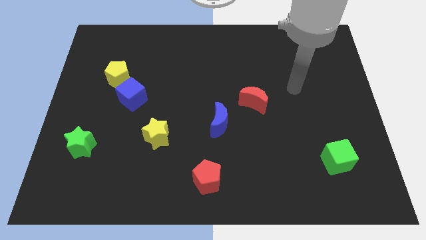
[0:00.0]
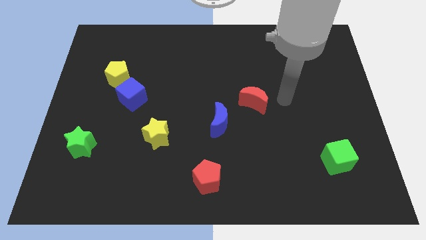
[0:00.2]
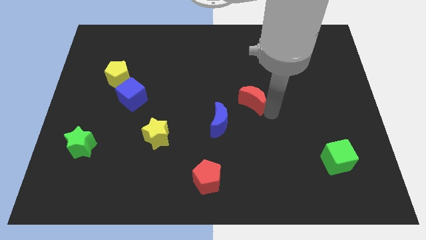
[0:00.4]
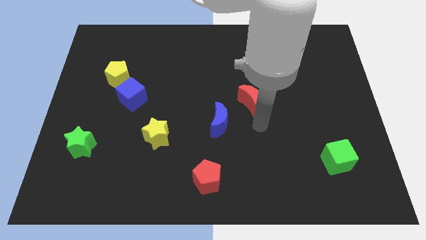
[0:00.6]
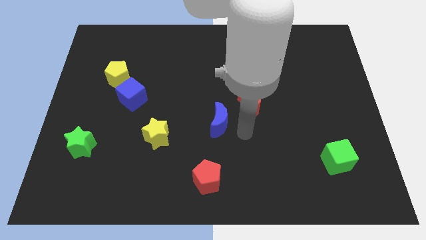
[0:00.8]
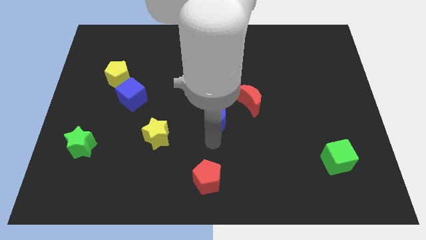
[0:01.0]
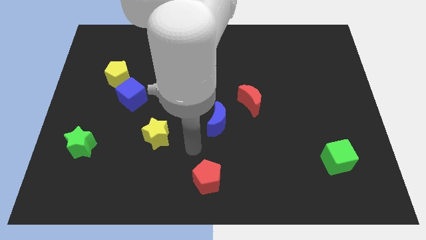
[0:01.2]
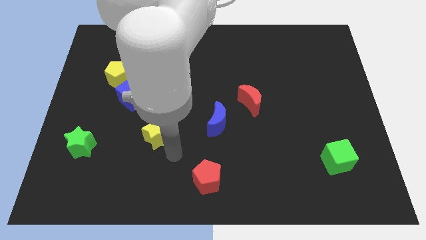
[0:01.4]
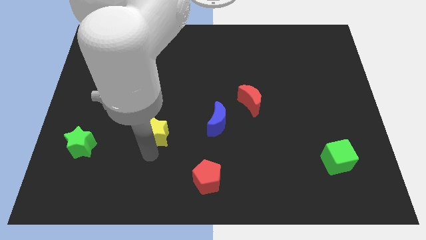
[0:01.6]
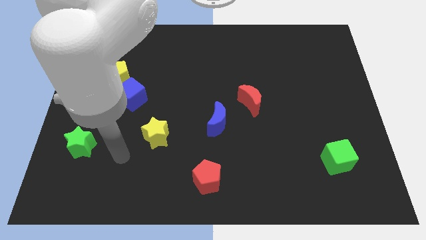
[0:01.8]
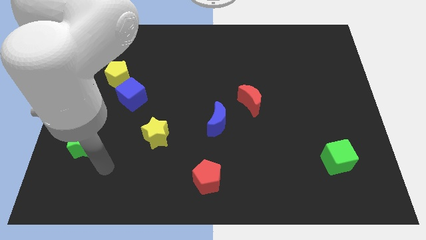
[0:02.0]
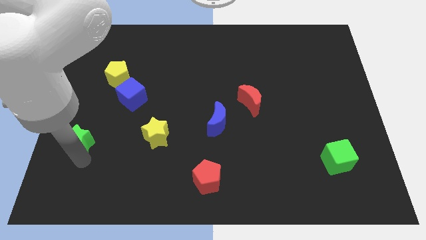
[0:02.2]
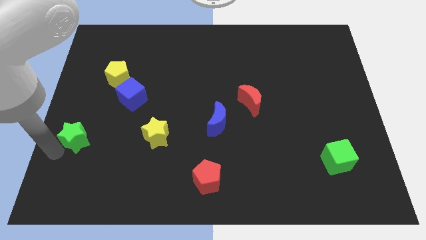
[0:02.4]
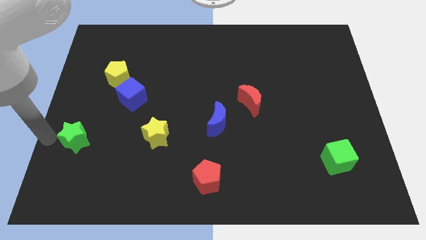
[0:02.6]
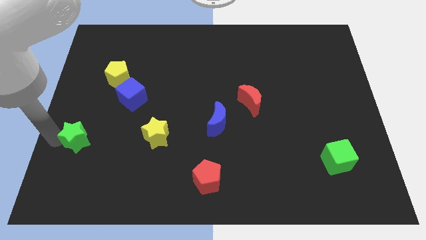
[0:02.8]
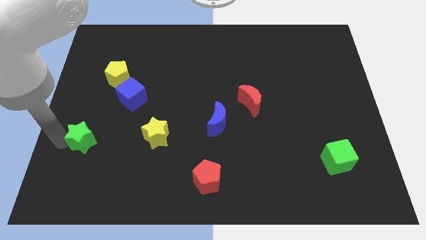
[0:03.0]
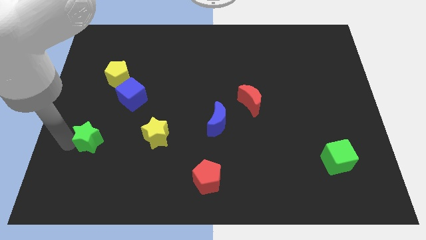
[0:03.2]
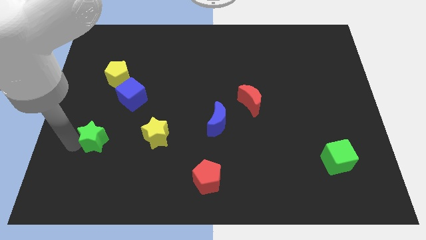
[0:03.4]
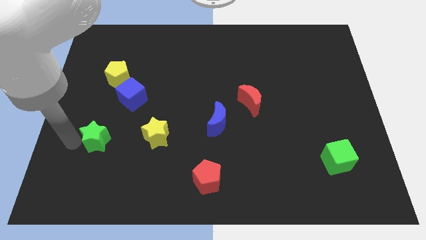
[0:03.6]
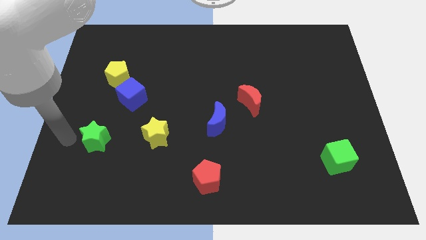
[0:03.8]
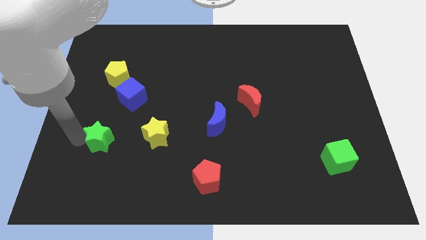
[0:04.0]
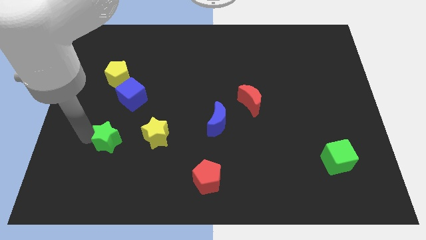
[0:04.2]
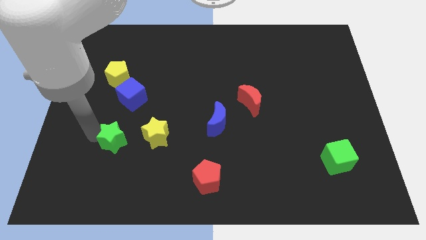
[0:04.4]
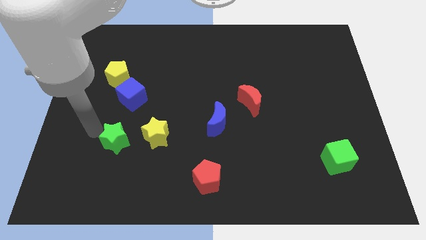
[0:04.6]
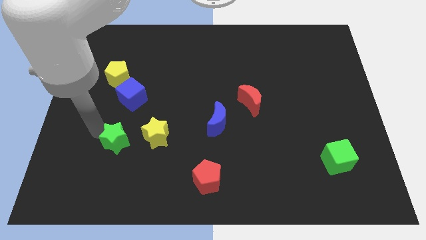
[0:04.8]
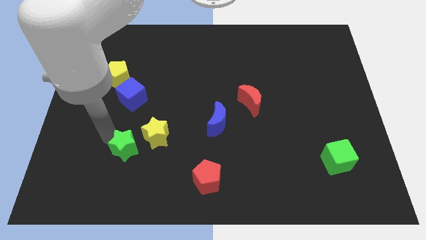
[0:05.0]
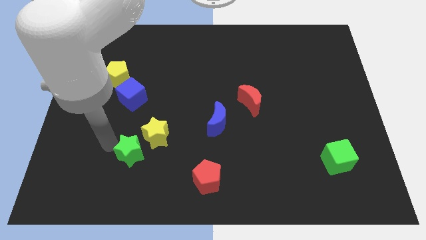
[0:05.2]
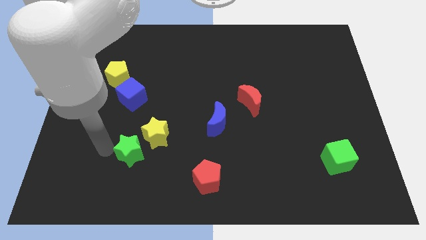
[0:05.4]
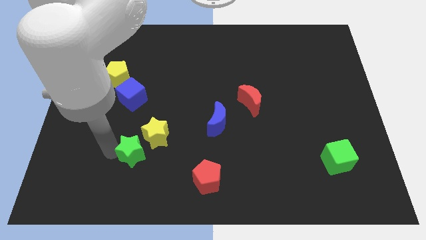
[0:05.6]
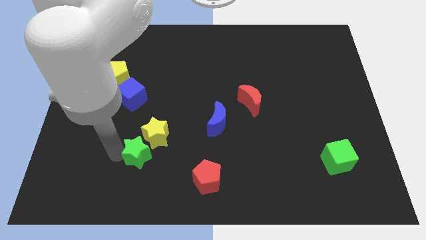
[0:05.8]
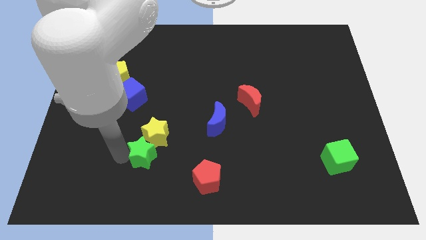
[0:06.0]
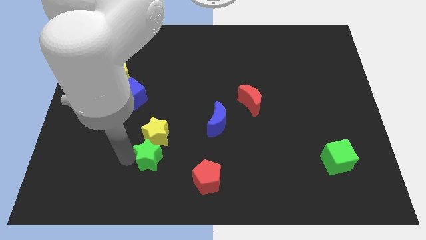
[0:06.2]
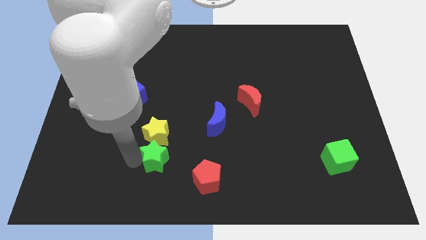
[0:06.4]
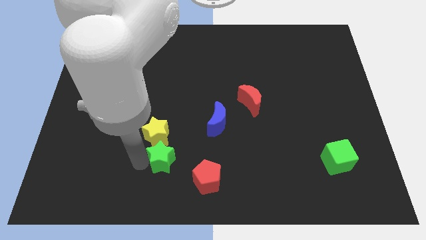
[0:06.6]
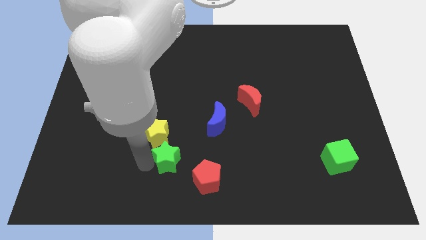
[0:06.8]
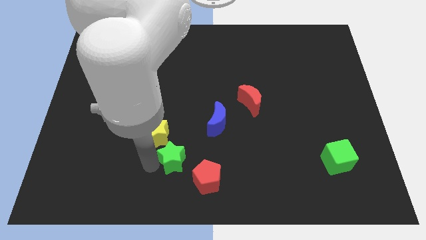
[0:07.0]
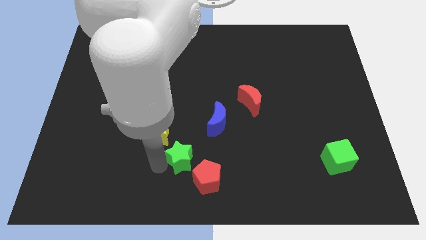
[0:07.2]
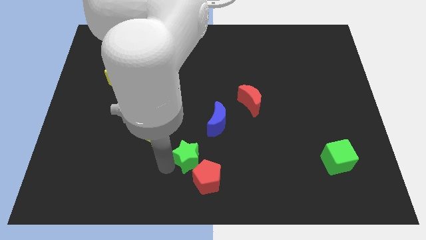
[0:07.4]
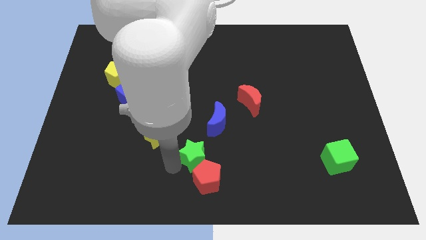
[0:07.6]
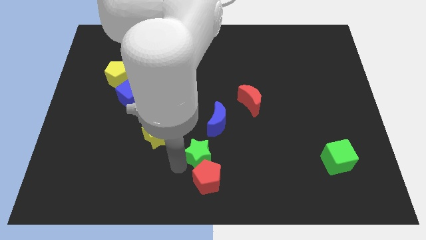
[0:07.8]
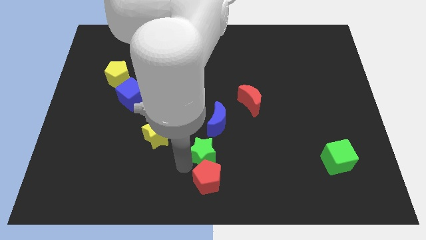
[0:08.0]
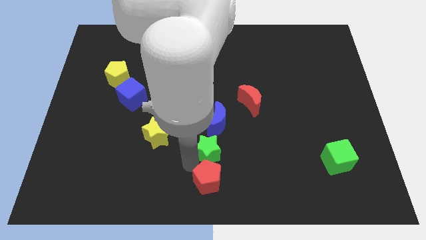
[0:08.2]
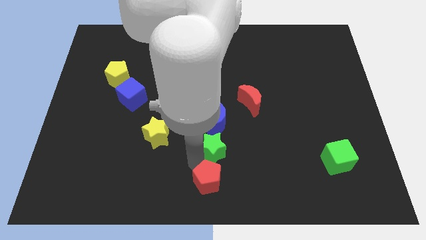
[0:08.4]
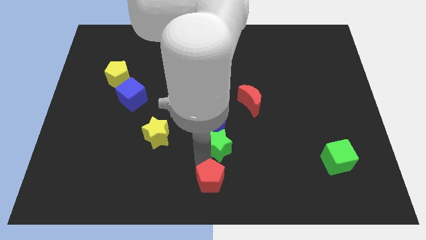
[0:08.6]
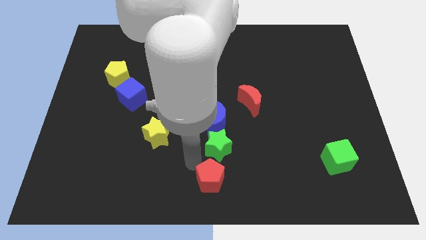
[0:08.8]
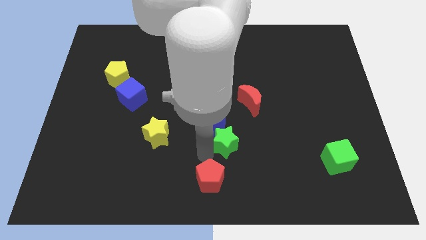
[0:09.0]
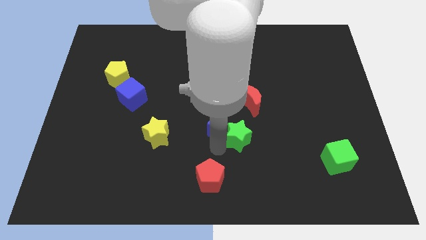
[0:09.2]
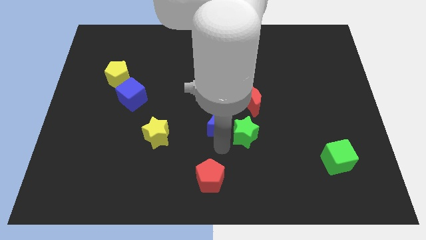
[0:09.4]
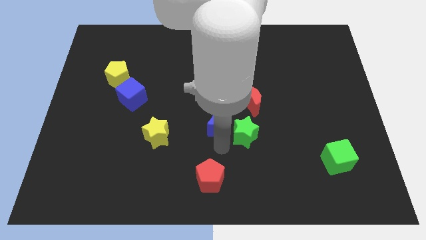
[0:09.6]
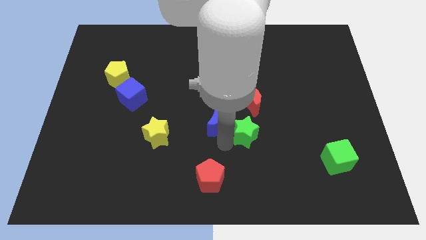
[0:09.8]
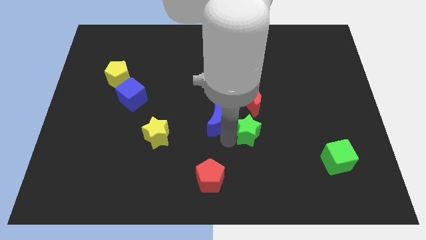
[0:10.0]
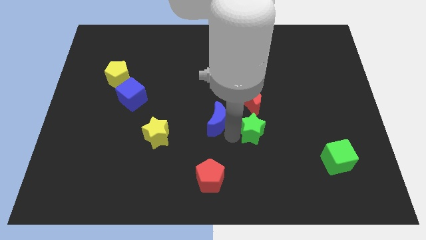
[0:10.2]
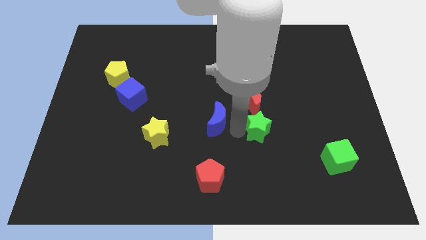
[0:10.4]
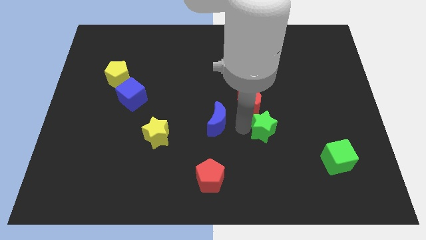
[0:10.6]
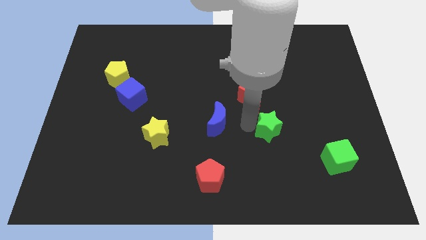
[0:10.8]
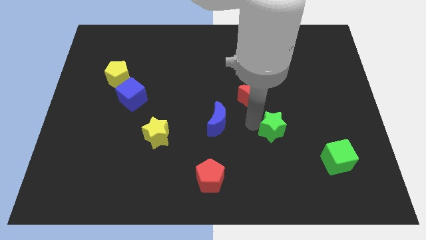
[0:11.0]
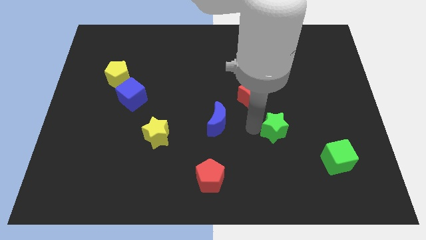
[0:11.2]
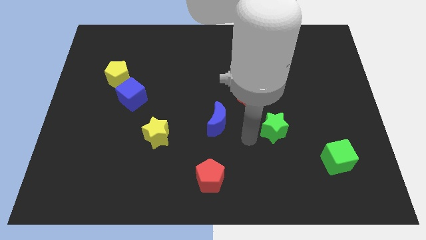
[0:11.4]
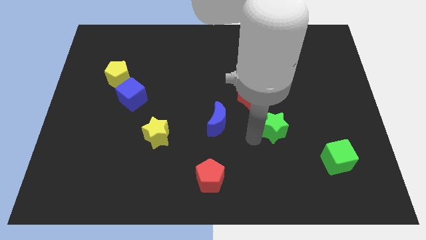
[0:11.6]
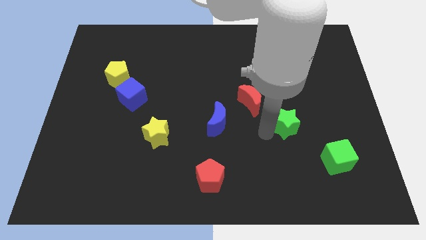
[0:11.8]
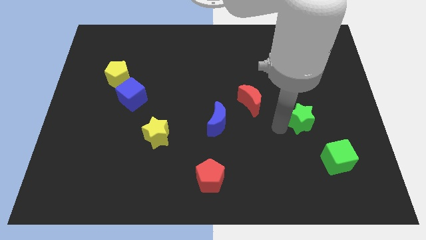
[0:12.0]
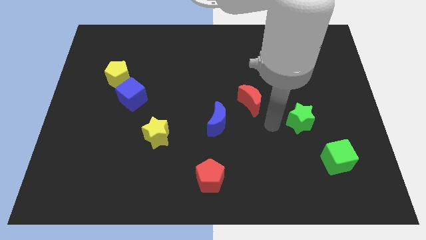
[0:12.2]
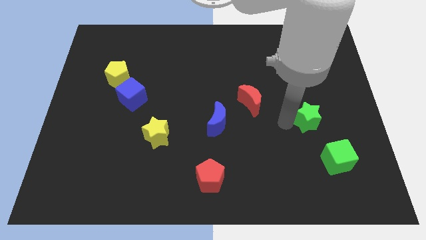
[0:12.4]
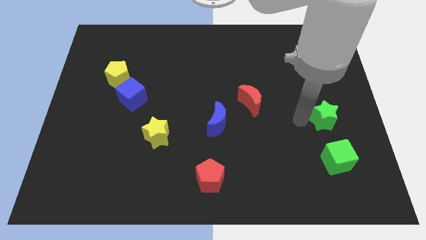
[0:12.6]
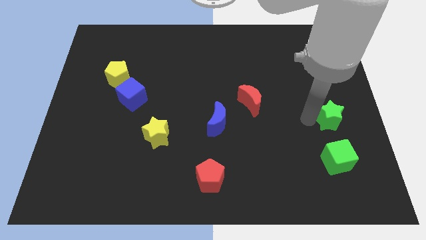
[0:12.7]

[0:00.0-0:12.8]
put the green star to the right side
